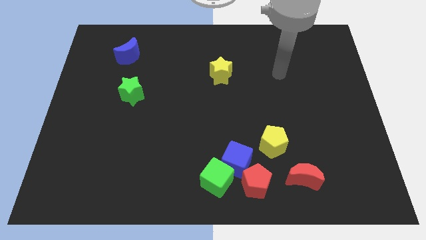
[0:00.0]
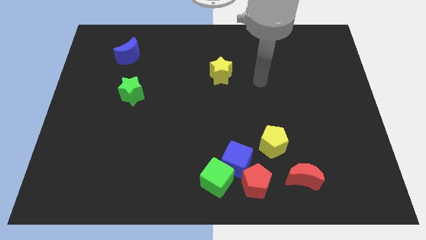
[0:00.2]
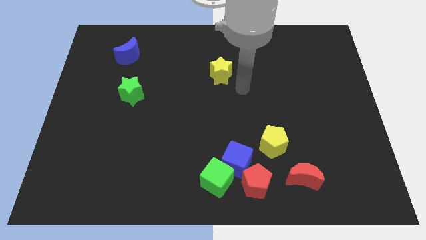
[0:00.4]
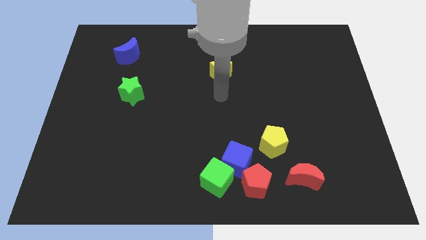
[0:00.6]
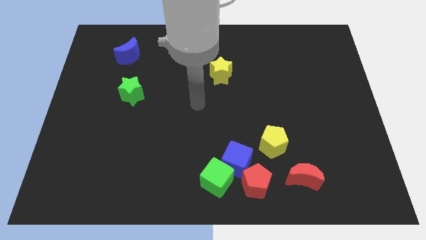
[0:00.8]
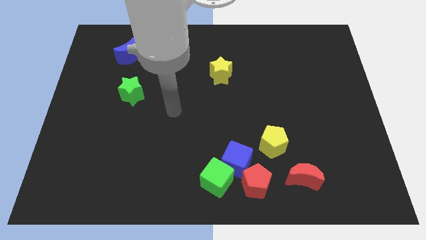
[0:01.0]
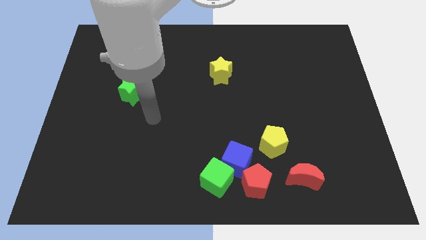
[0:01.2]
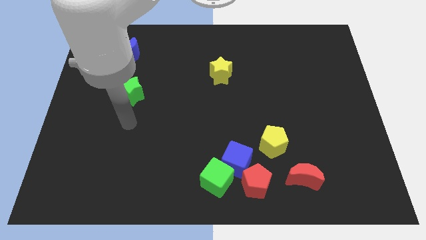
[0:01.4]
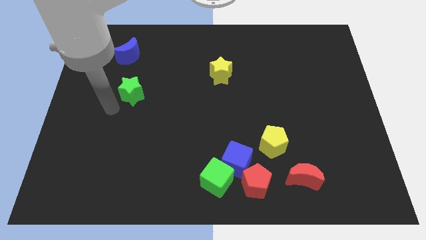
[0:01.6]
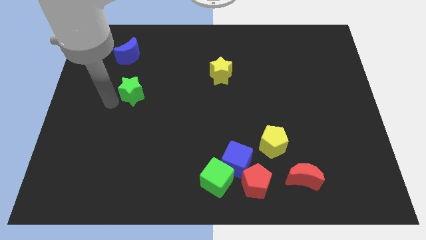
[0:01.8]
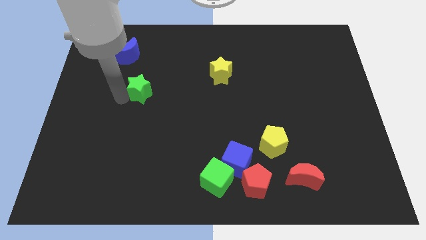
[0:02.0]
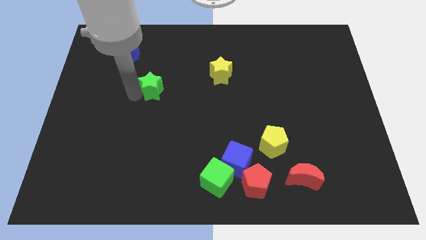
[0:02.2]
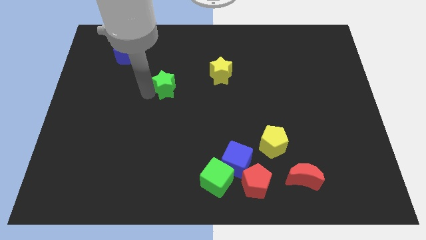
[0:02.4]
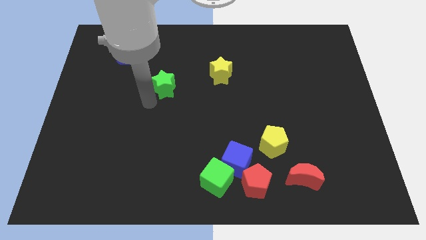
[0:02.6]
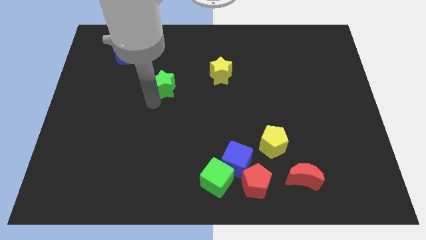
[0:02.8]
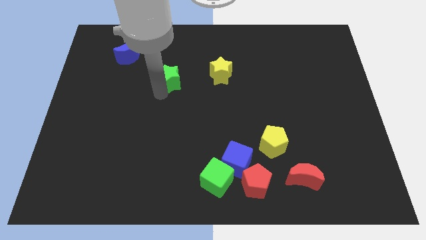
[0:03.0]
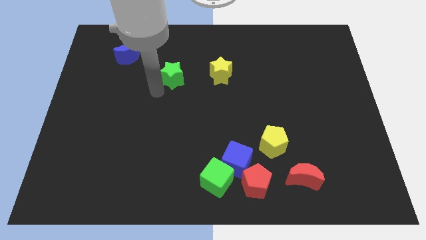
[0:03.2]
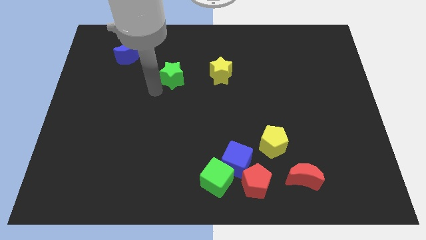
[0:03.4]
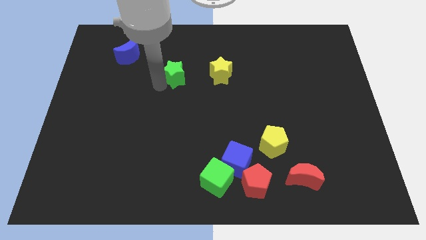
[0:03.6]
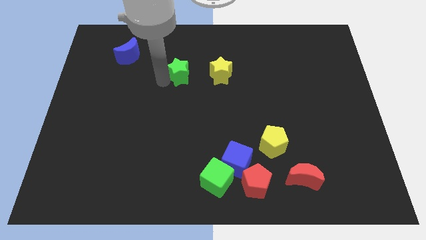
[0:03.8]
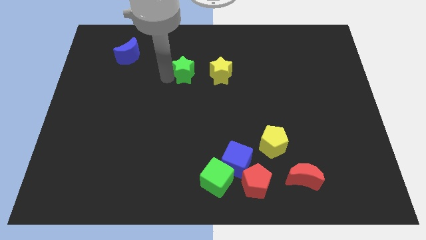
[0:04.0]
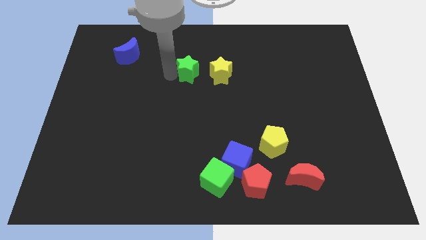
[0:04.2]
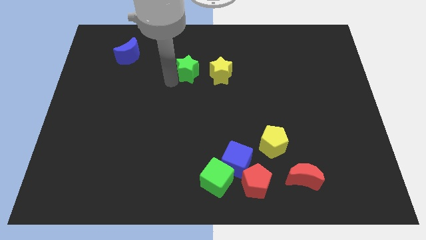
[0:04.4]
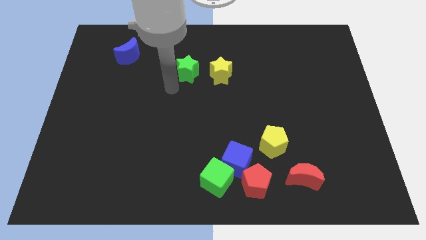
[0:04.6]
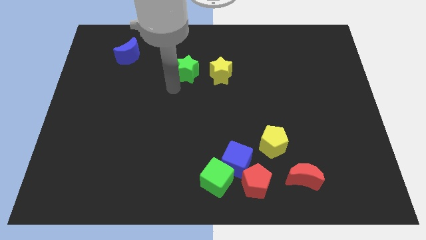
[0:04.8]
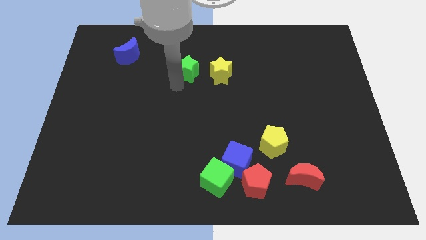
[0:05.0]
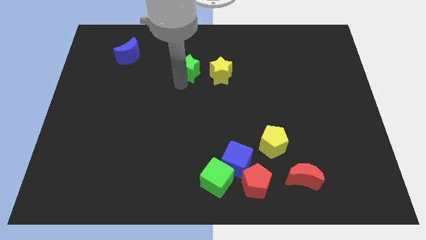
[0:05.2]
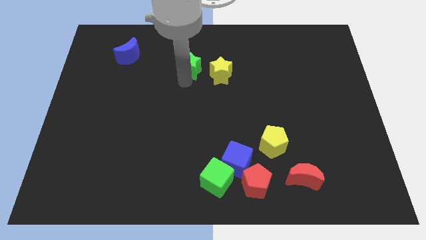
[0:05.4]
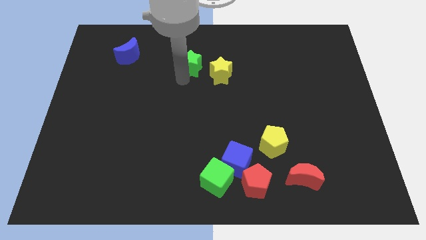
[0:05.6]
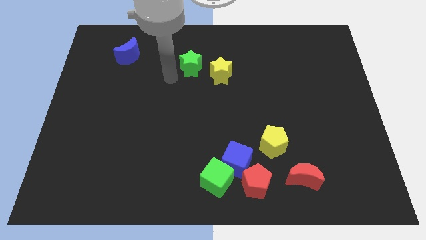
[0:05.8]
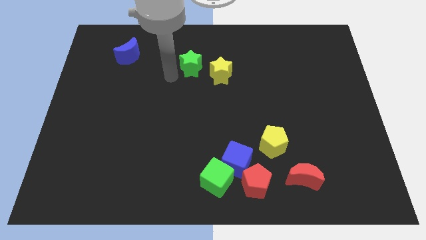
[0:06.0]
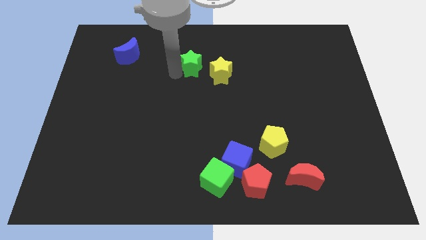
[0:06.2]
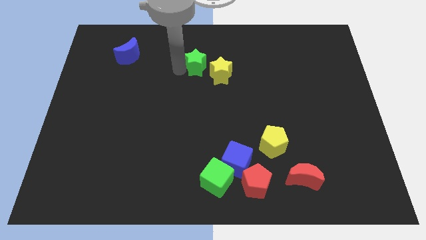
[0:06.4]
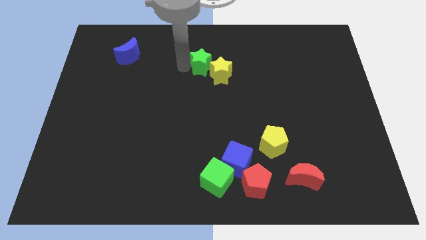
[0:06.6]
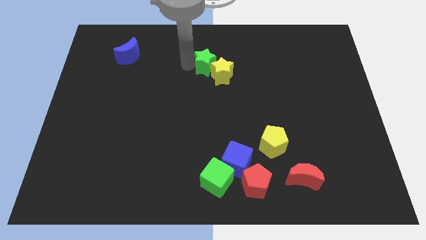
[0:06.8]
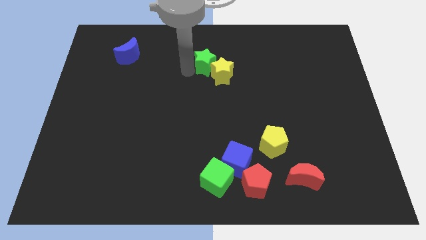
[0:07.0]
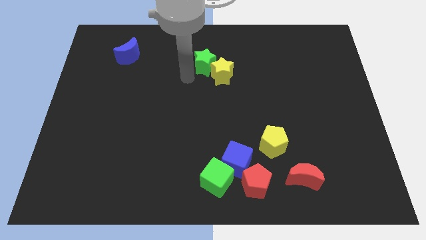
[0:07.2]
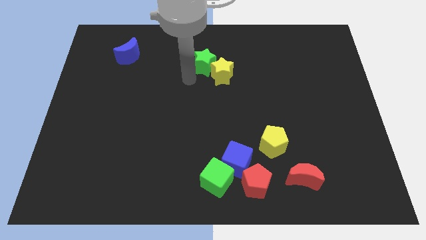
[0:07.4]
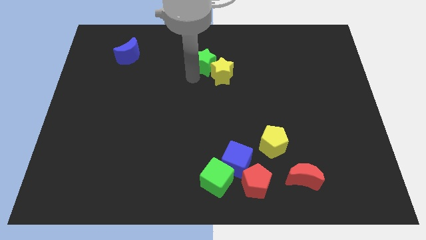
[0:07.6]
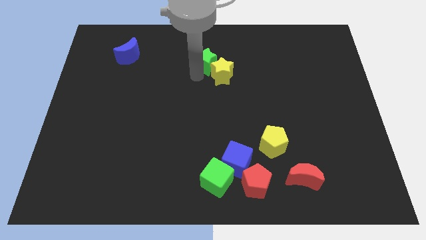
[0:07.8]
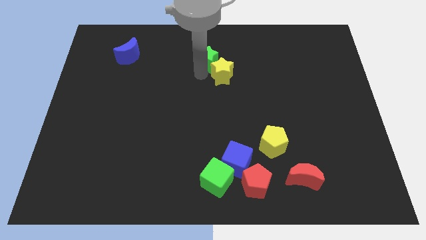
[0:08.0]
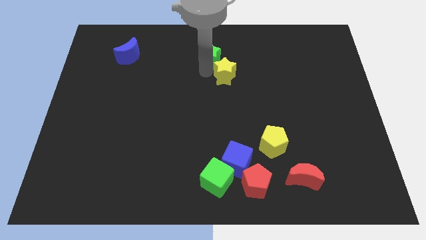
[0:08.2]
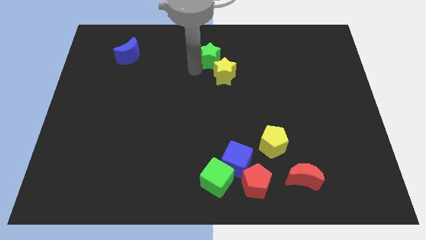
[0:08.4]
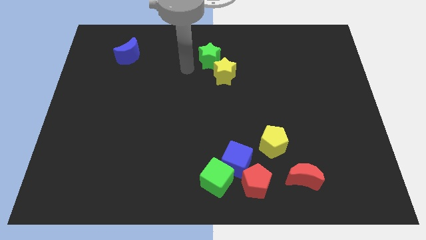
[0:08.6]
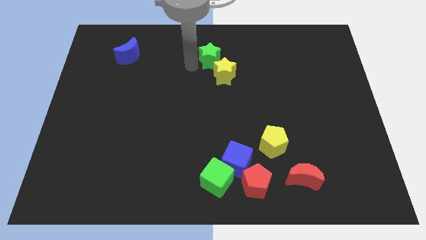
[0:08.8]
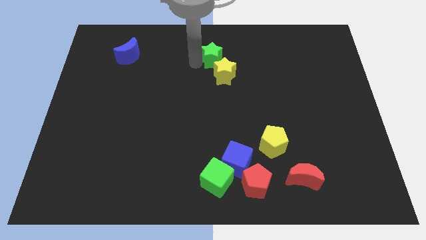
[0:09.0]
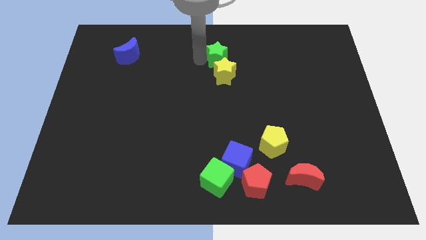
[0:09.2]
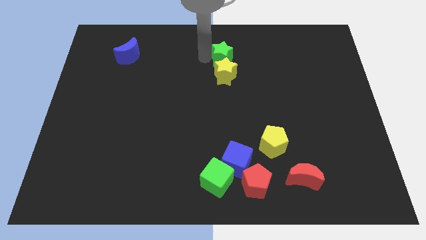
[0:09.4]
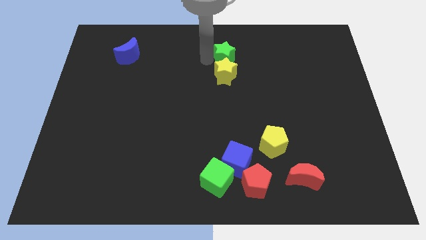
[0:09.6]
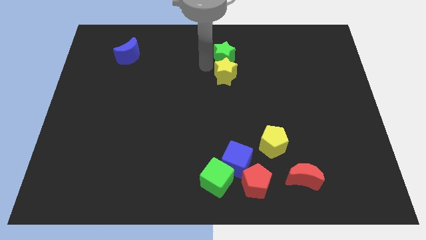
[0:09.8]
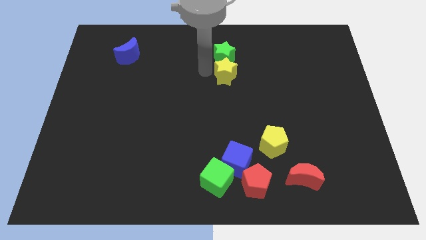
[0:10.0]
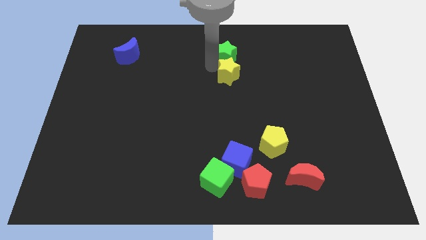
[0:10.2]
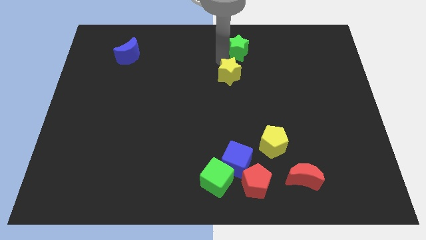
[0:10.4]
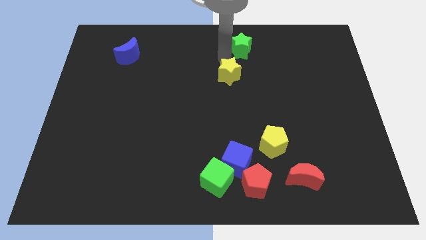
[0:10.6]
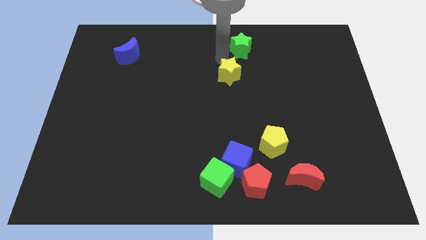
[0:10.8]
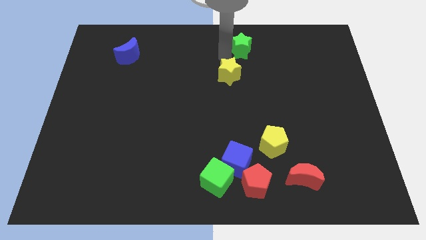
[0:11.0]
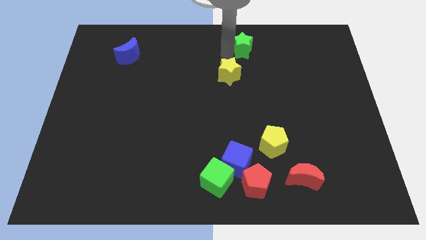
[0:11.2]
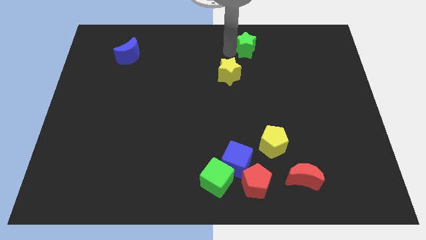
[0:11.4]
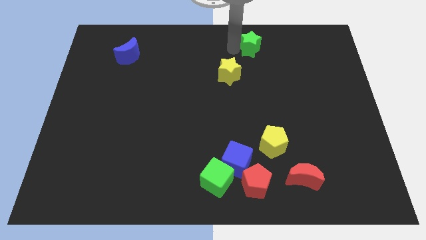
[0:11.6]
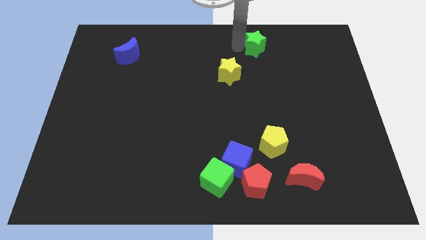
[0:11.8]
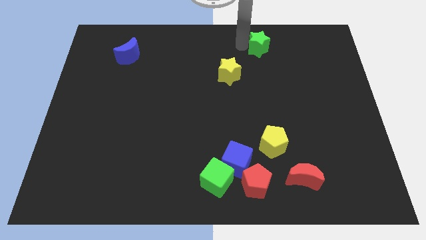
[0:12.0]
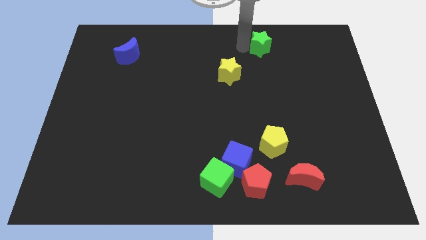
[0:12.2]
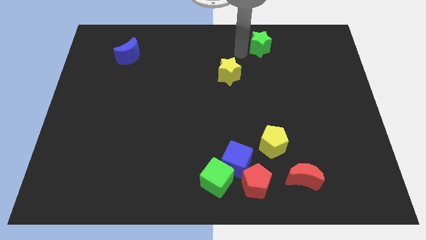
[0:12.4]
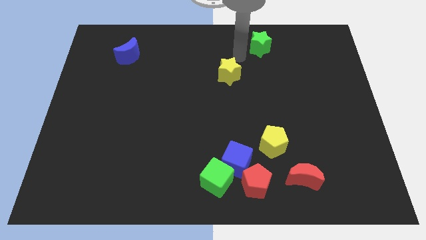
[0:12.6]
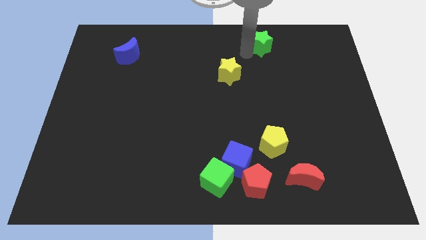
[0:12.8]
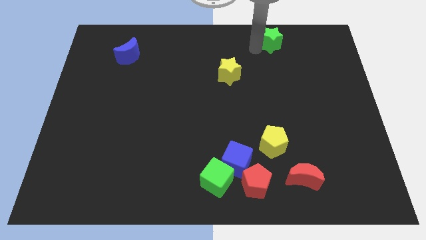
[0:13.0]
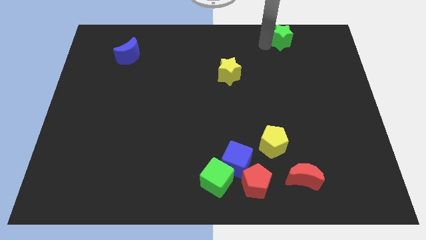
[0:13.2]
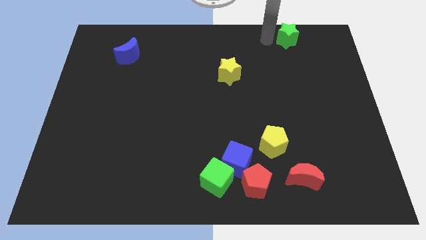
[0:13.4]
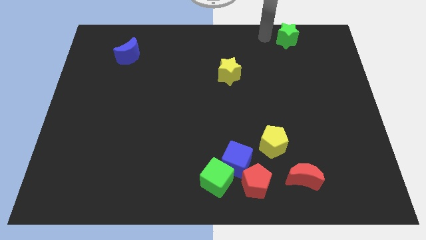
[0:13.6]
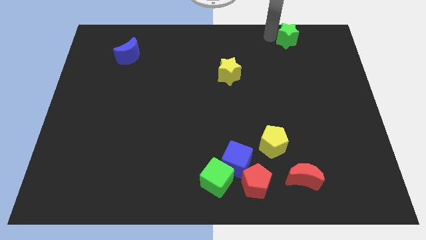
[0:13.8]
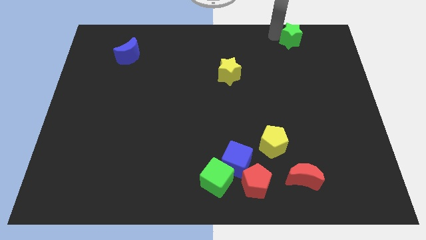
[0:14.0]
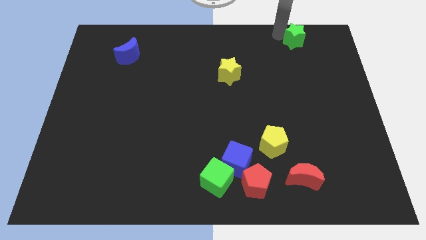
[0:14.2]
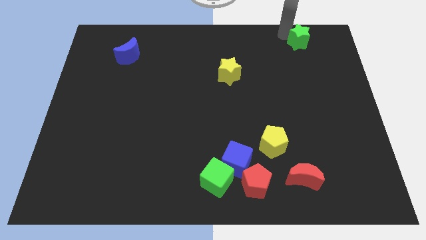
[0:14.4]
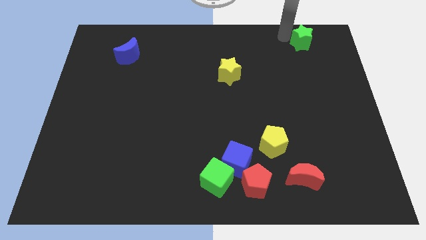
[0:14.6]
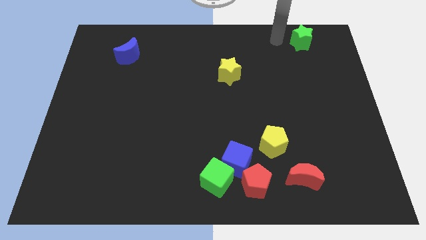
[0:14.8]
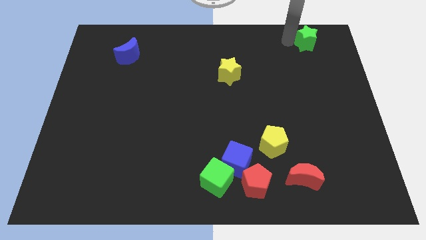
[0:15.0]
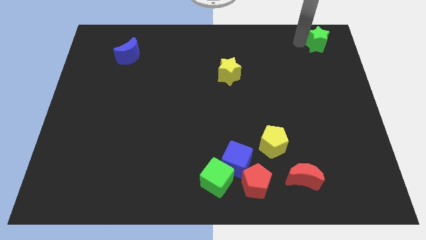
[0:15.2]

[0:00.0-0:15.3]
slide the green star to the top right
